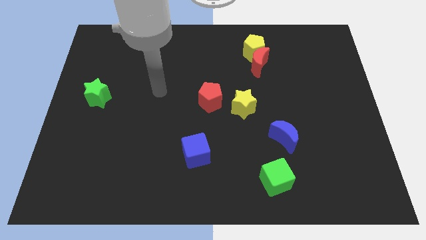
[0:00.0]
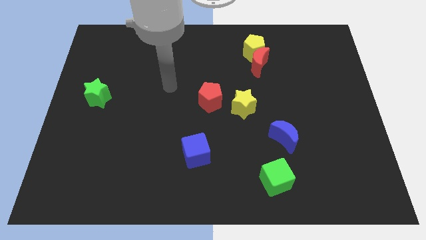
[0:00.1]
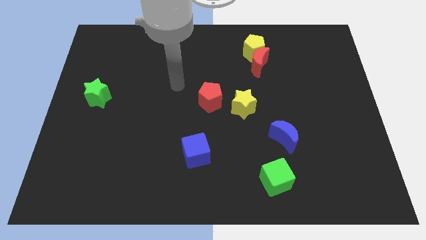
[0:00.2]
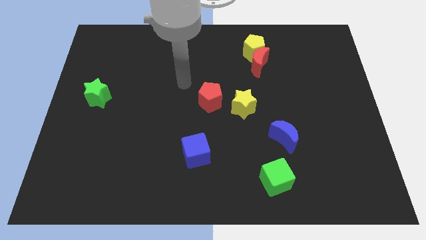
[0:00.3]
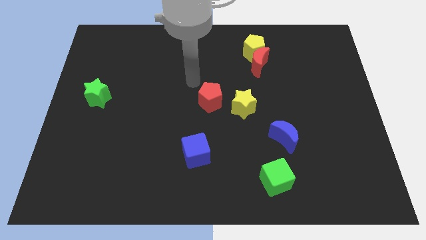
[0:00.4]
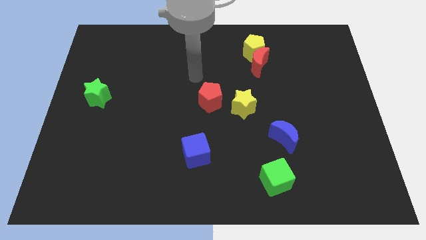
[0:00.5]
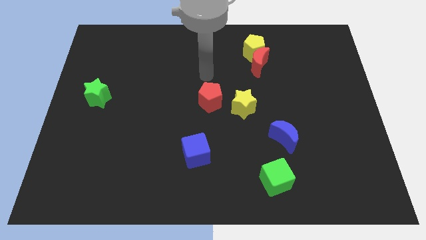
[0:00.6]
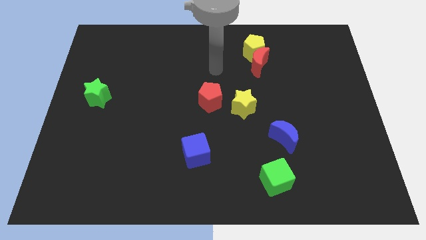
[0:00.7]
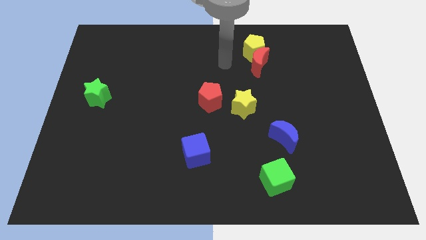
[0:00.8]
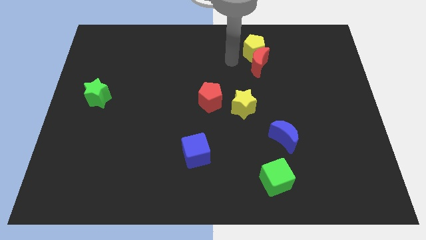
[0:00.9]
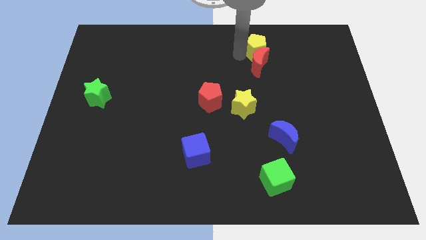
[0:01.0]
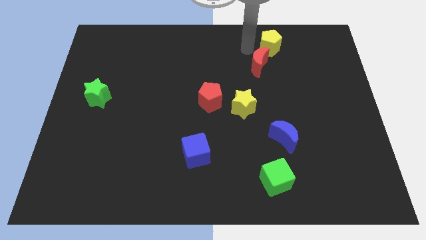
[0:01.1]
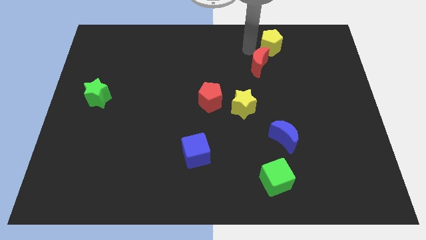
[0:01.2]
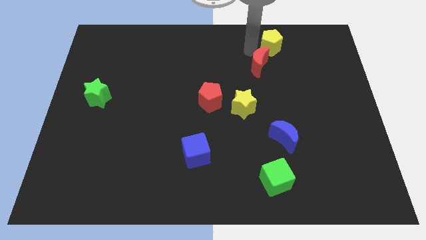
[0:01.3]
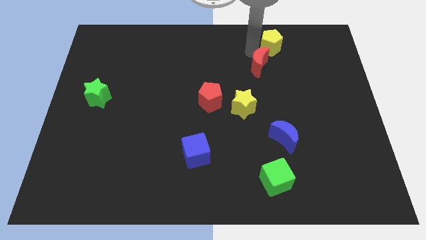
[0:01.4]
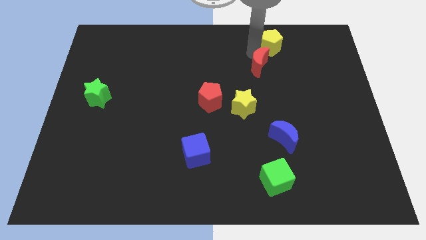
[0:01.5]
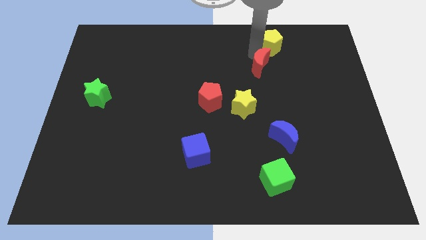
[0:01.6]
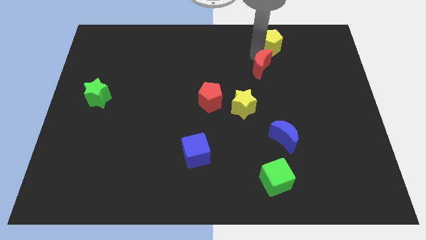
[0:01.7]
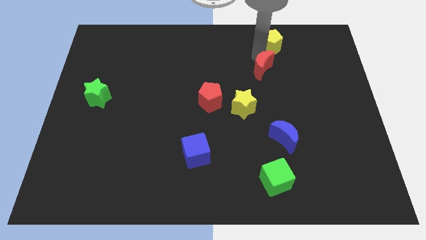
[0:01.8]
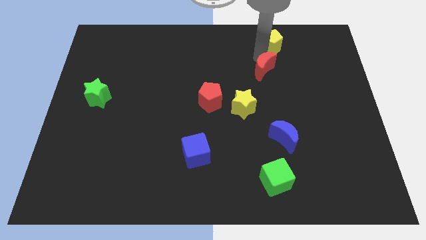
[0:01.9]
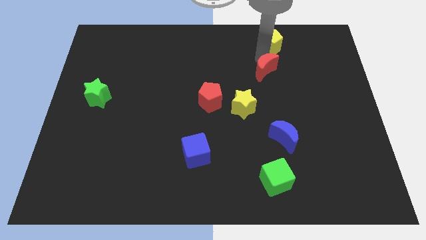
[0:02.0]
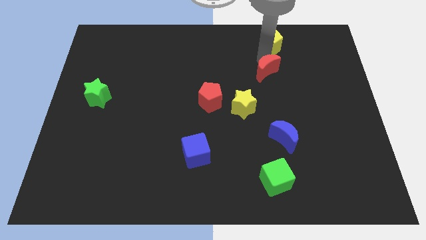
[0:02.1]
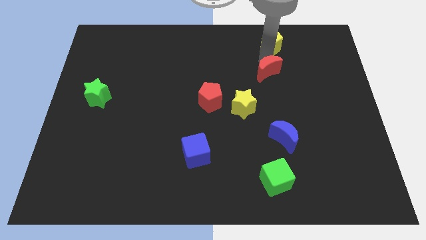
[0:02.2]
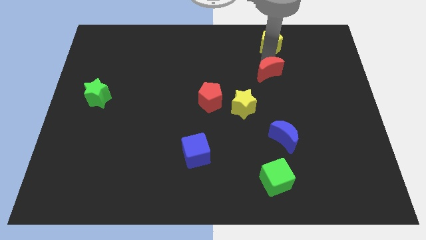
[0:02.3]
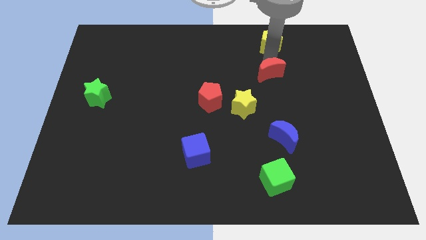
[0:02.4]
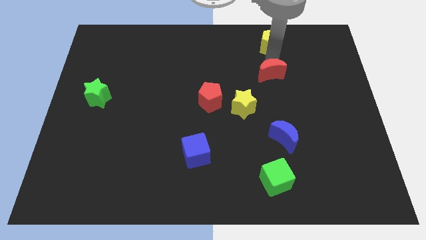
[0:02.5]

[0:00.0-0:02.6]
separate the red moon from the yellow pentagon

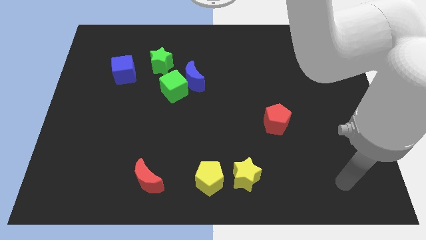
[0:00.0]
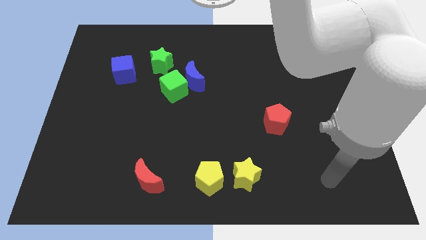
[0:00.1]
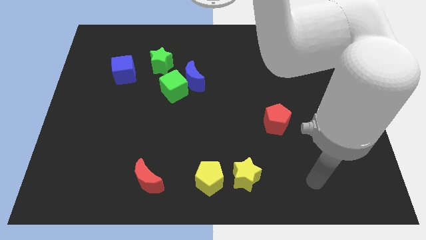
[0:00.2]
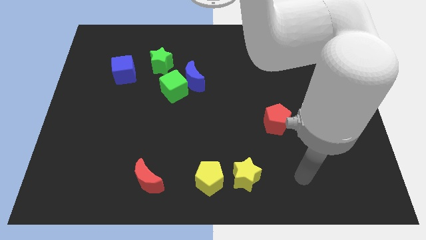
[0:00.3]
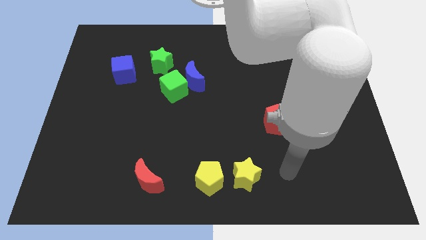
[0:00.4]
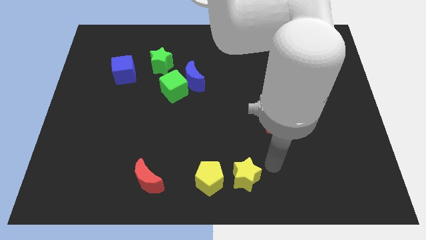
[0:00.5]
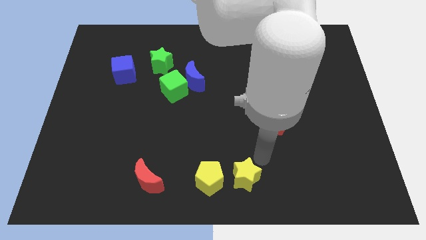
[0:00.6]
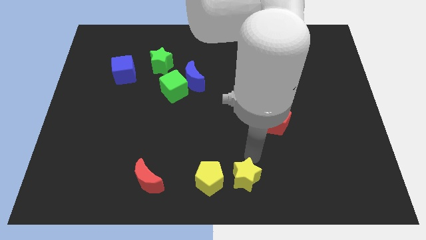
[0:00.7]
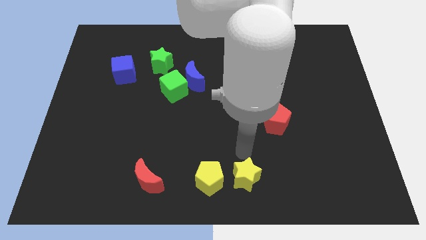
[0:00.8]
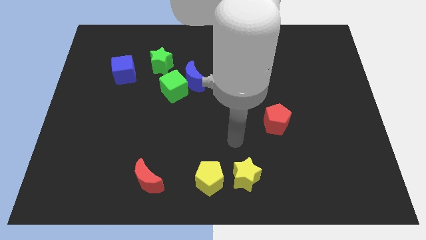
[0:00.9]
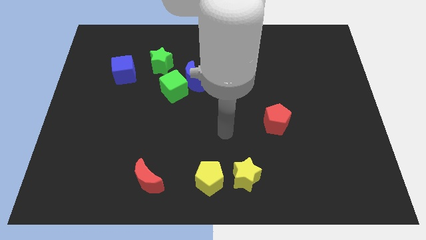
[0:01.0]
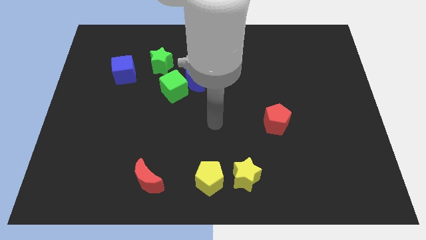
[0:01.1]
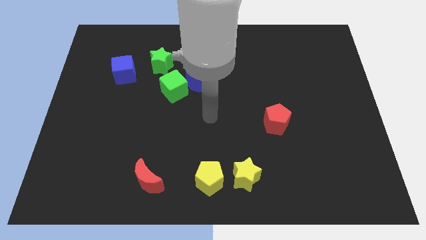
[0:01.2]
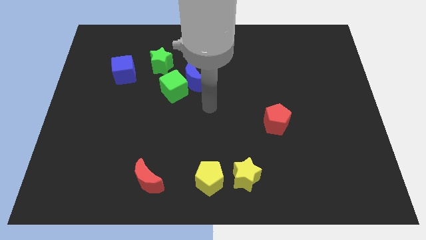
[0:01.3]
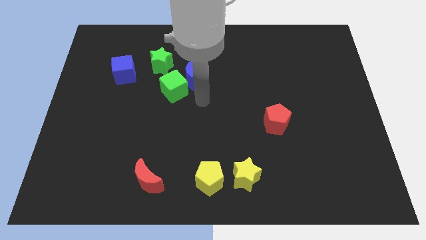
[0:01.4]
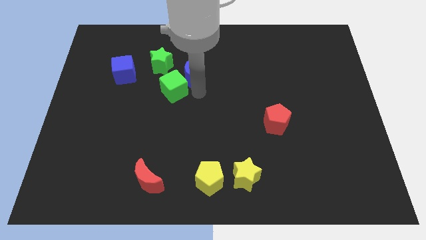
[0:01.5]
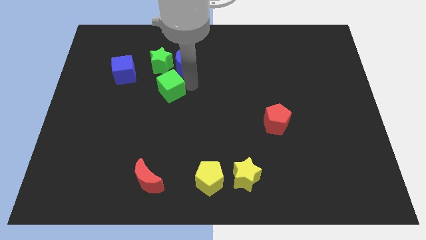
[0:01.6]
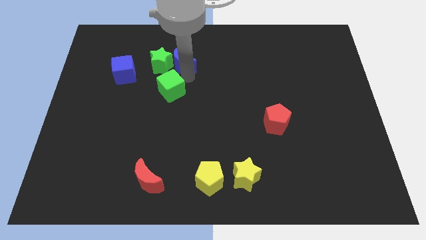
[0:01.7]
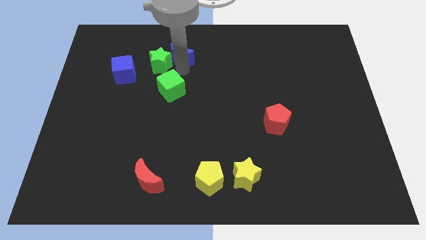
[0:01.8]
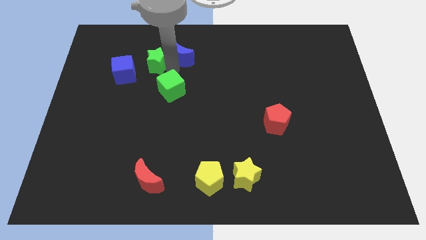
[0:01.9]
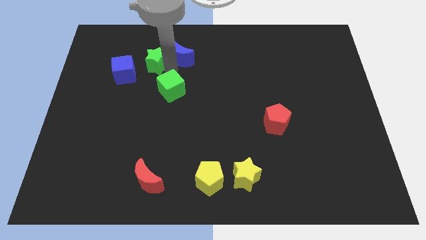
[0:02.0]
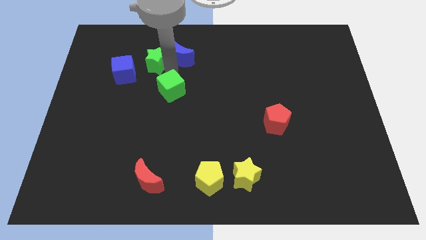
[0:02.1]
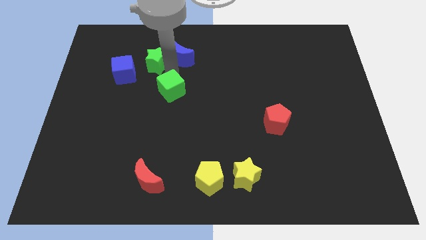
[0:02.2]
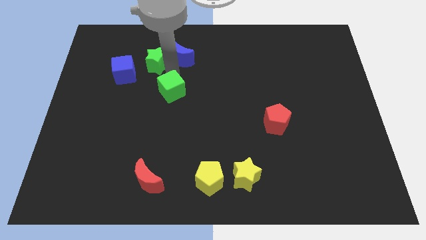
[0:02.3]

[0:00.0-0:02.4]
pull the green cube apart from the blue moon and green star

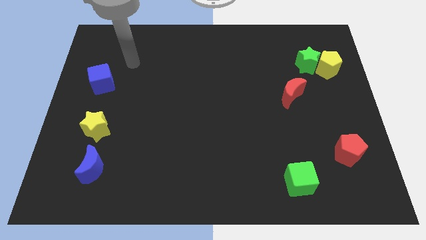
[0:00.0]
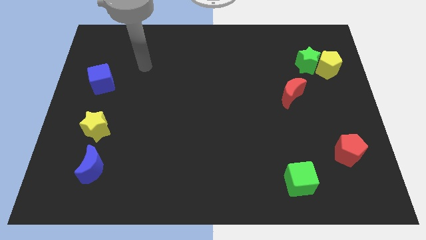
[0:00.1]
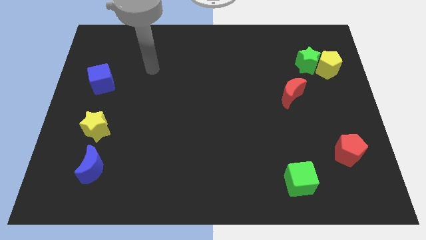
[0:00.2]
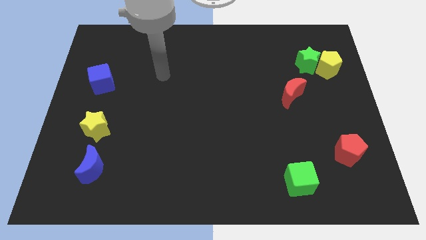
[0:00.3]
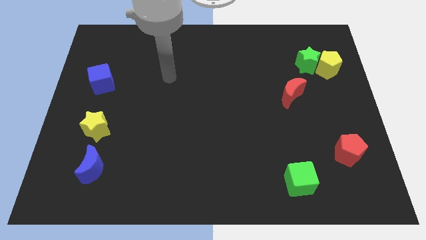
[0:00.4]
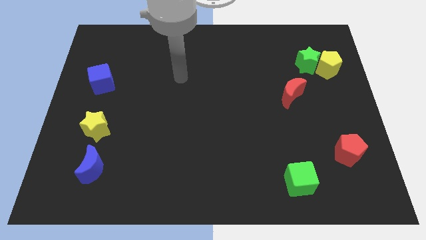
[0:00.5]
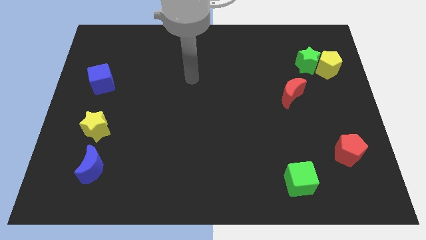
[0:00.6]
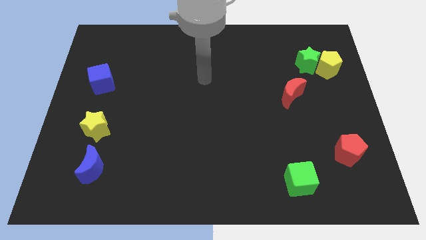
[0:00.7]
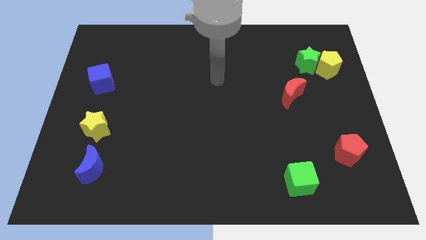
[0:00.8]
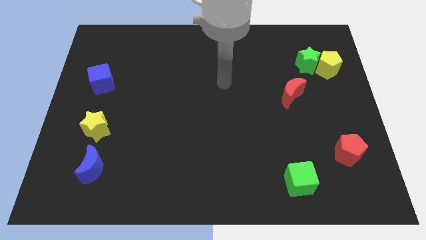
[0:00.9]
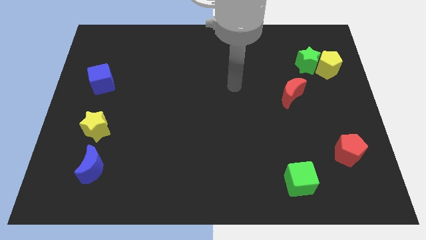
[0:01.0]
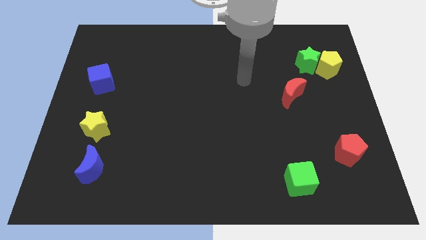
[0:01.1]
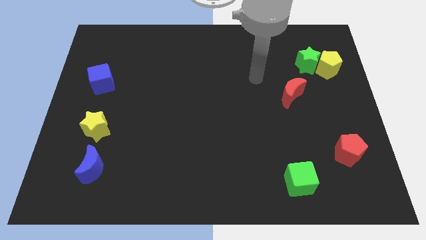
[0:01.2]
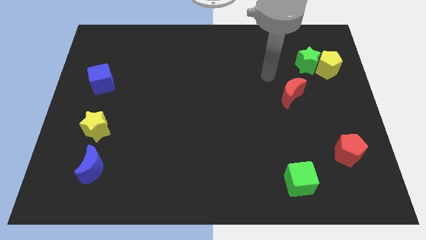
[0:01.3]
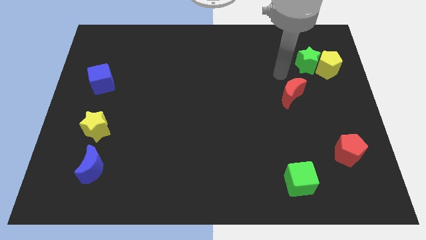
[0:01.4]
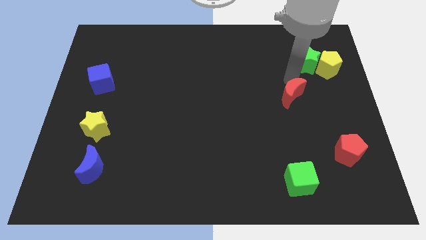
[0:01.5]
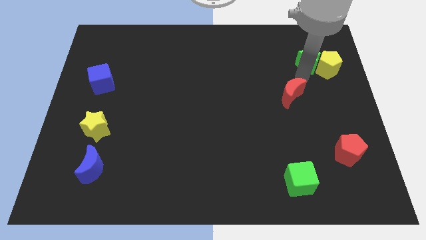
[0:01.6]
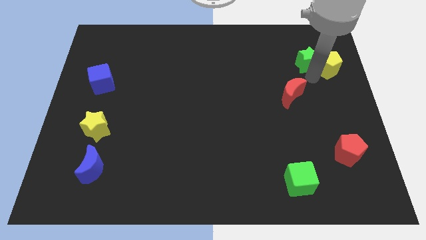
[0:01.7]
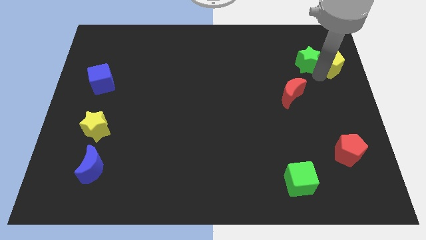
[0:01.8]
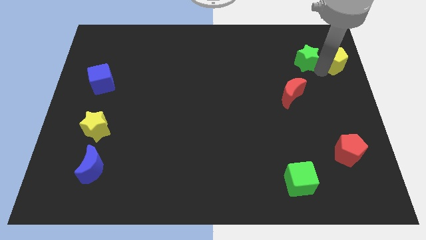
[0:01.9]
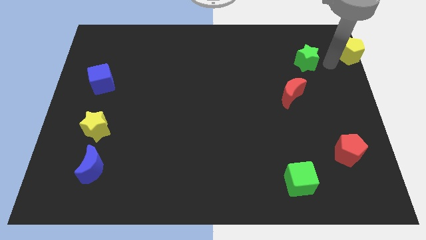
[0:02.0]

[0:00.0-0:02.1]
move the green star away from the yellow pentagon

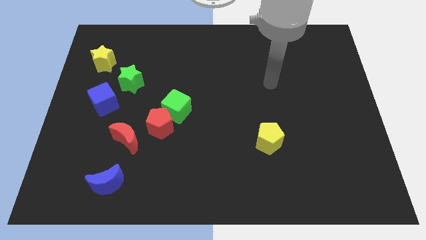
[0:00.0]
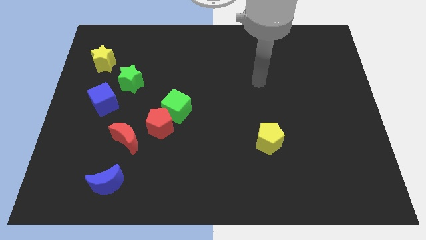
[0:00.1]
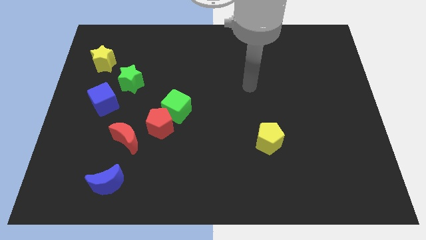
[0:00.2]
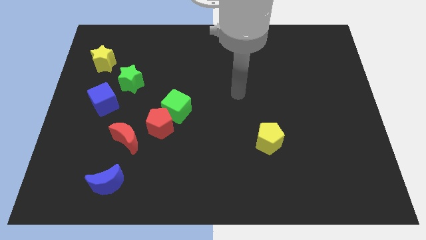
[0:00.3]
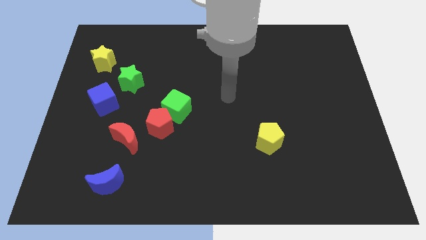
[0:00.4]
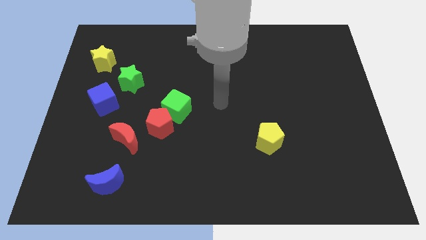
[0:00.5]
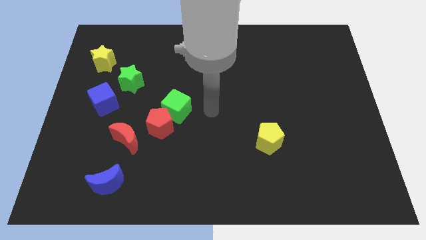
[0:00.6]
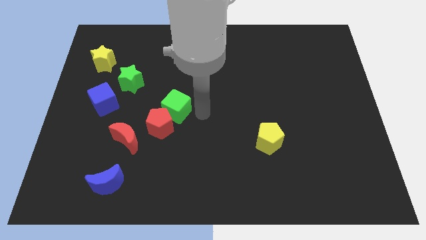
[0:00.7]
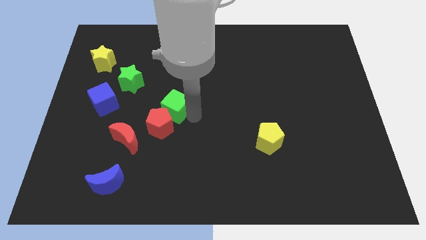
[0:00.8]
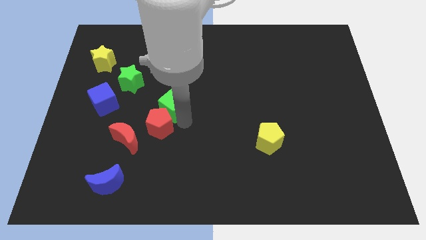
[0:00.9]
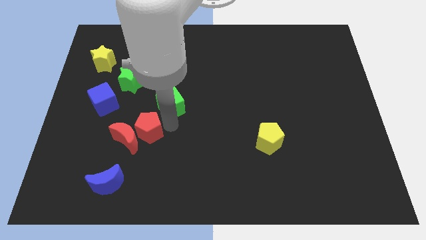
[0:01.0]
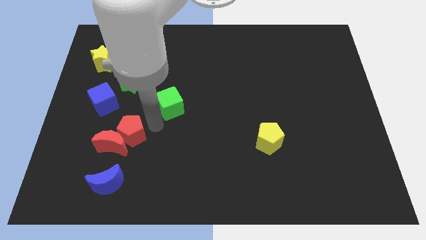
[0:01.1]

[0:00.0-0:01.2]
move the green cube away from the red pentagon

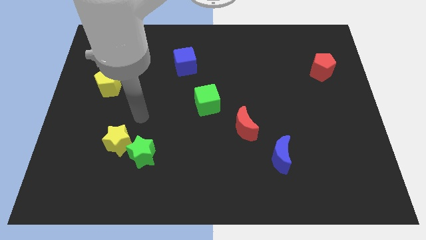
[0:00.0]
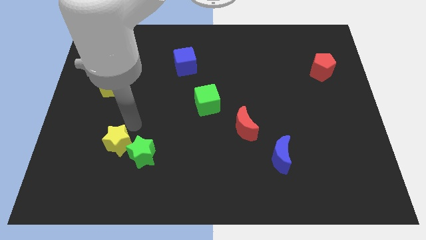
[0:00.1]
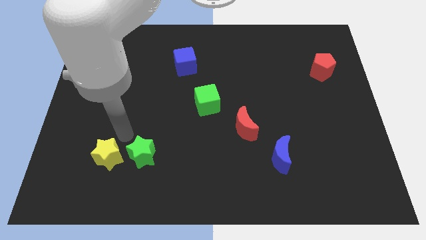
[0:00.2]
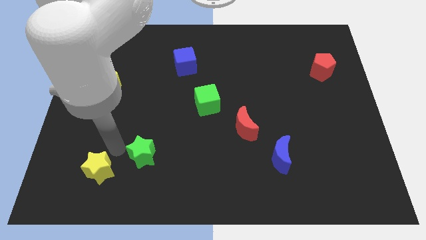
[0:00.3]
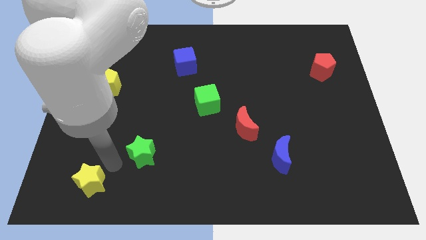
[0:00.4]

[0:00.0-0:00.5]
pull the green star apart from the yellow star

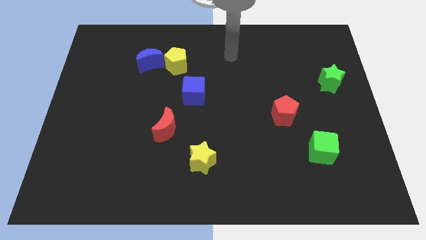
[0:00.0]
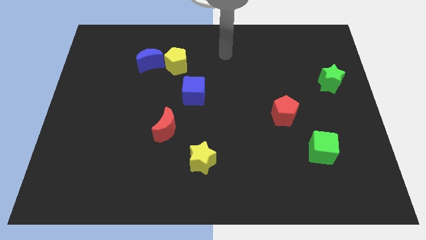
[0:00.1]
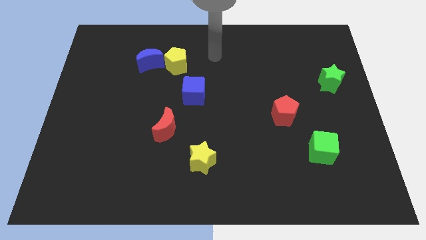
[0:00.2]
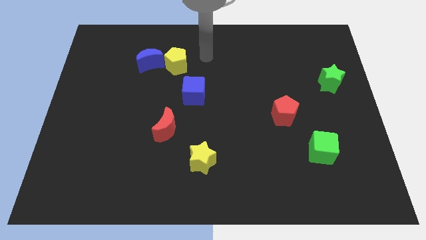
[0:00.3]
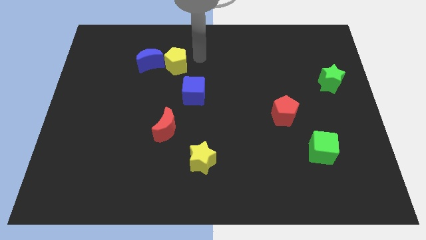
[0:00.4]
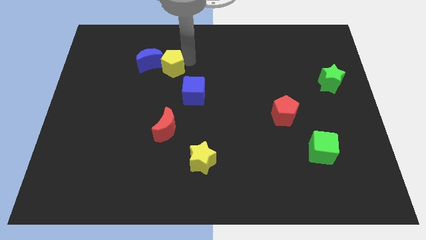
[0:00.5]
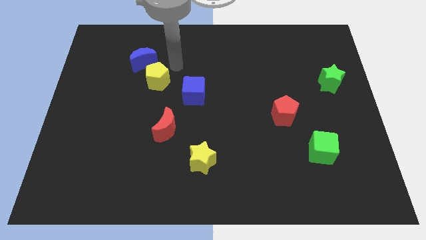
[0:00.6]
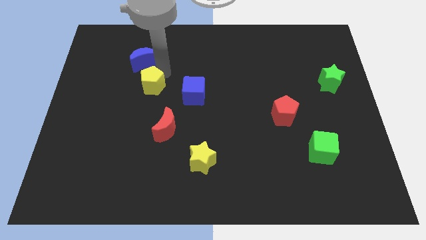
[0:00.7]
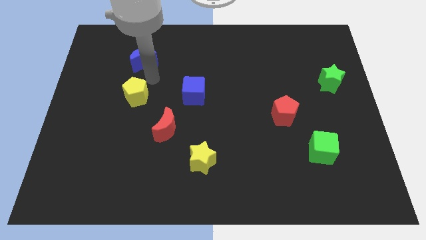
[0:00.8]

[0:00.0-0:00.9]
separate the blue moon from the yellow pentagon
